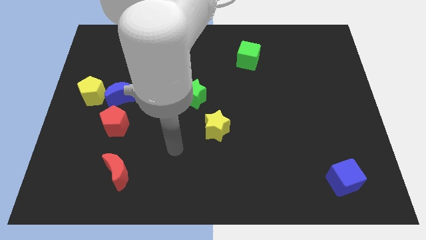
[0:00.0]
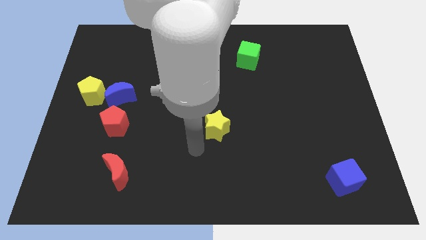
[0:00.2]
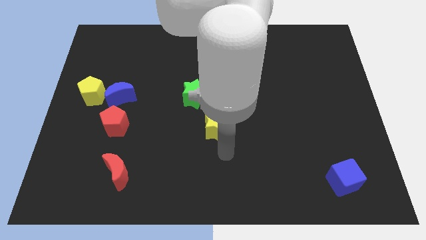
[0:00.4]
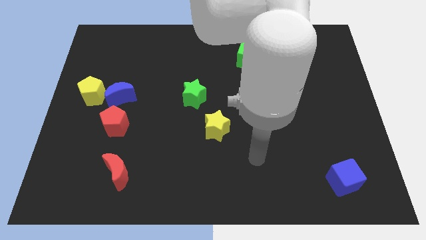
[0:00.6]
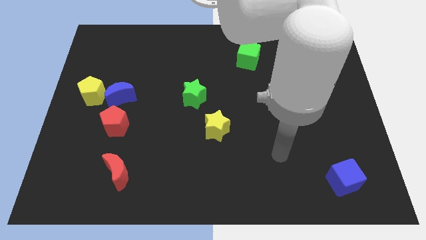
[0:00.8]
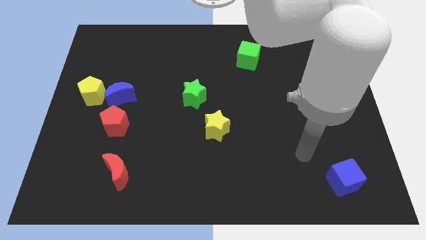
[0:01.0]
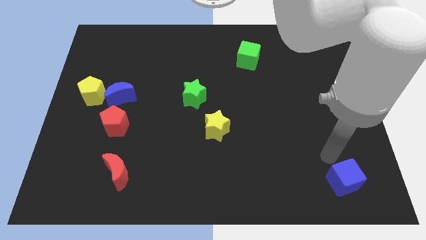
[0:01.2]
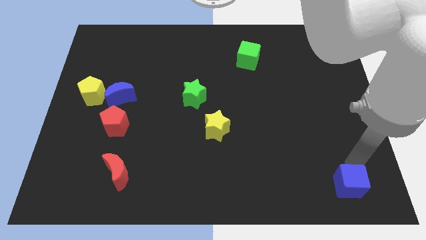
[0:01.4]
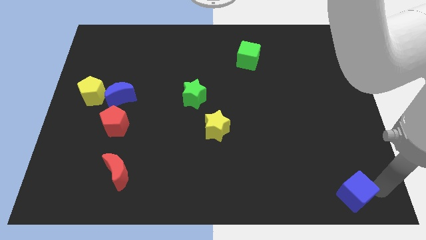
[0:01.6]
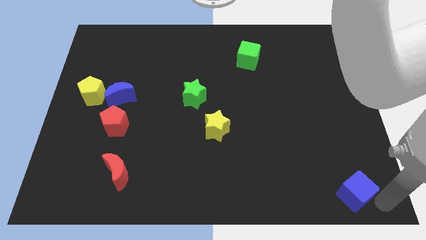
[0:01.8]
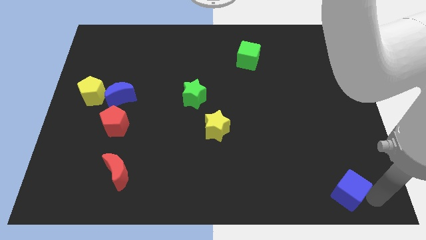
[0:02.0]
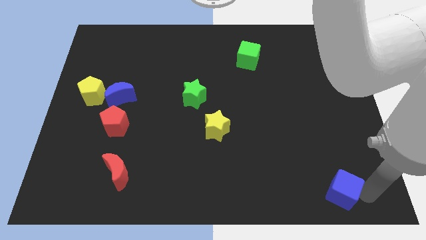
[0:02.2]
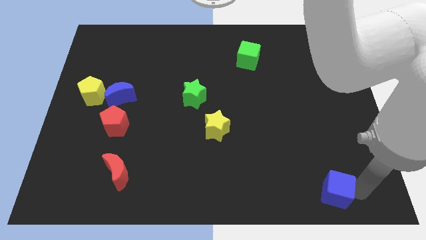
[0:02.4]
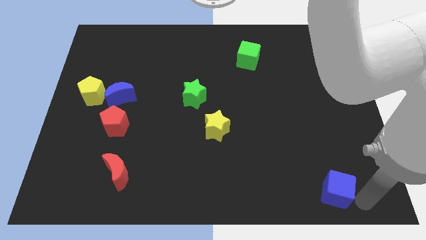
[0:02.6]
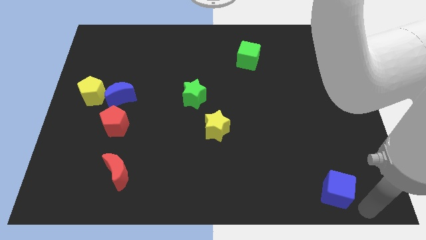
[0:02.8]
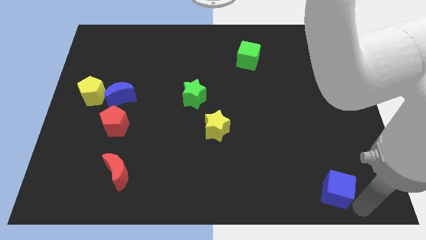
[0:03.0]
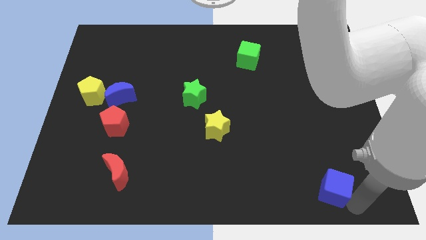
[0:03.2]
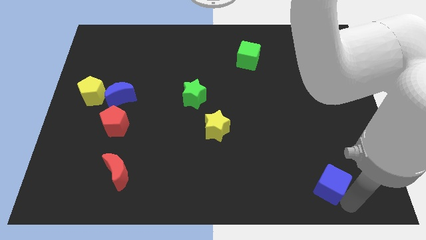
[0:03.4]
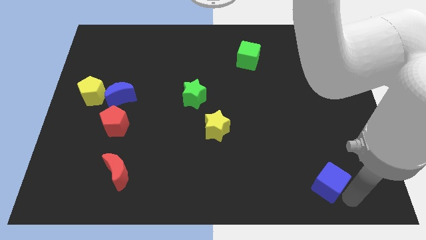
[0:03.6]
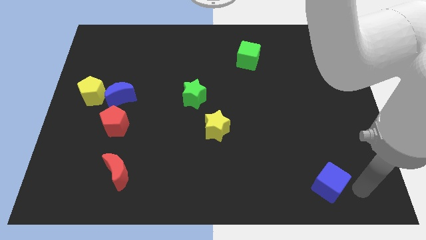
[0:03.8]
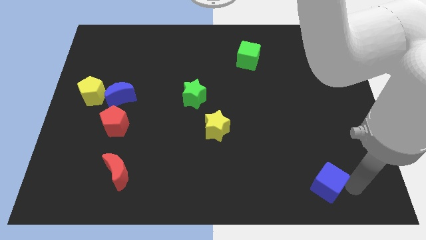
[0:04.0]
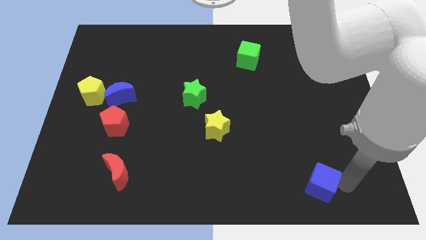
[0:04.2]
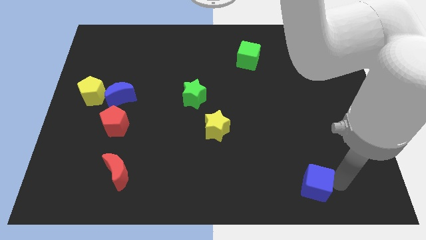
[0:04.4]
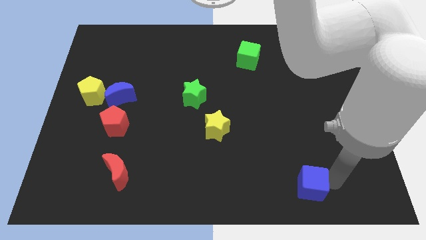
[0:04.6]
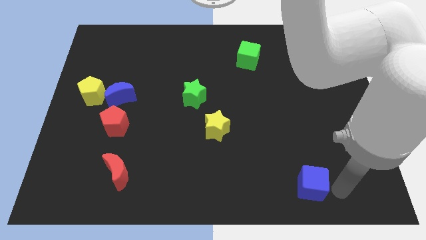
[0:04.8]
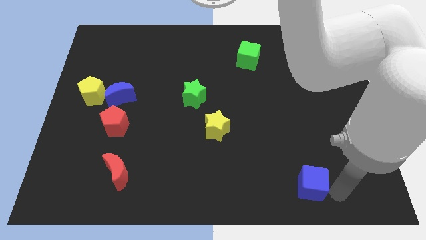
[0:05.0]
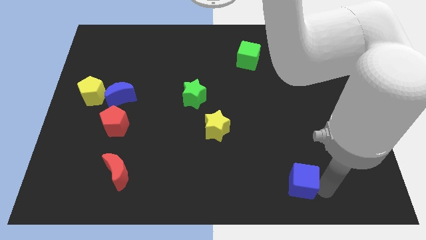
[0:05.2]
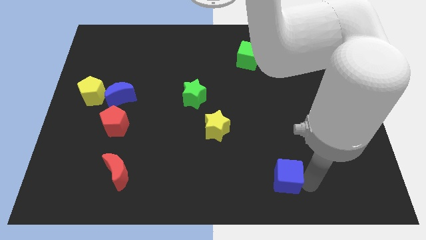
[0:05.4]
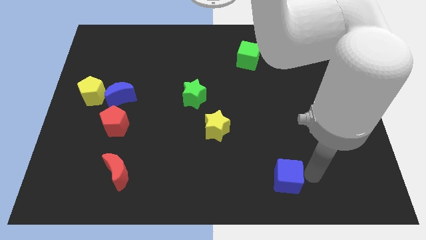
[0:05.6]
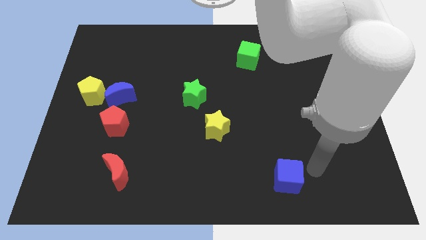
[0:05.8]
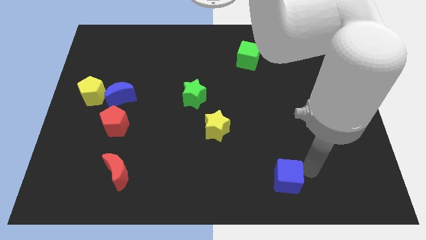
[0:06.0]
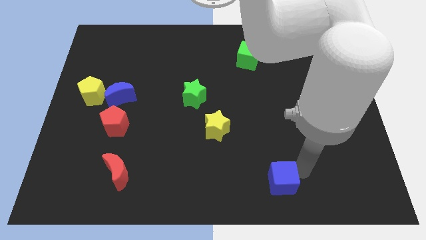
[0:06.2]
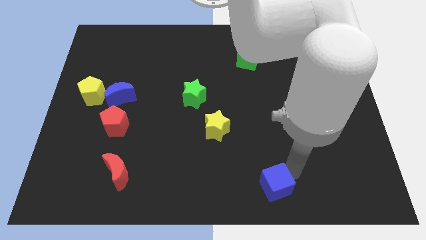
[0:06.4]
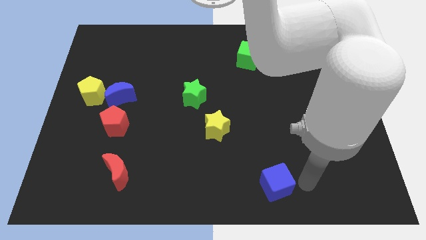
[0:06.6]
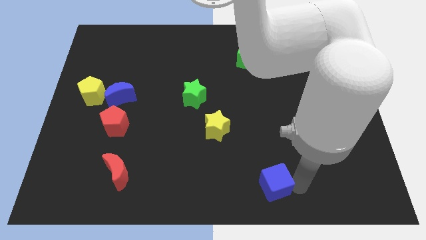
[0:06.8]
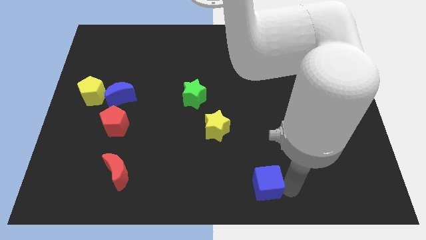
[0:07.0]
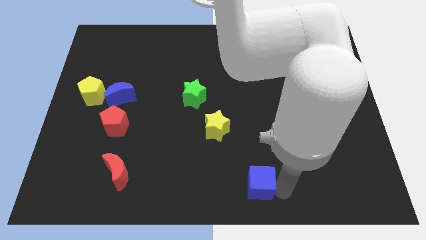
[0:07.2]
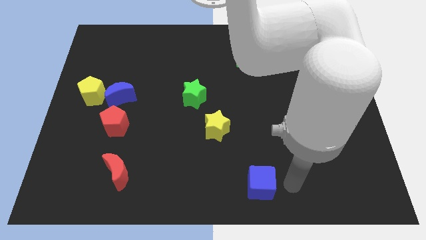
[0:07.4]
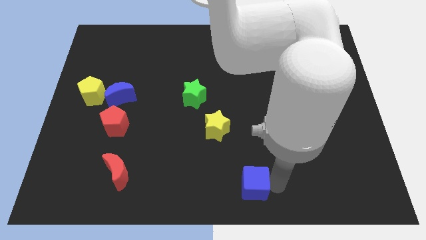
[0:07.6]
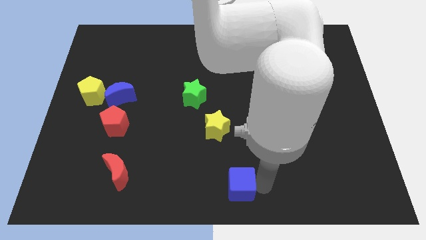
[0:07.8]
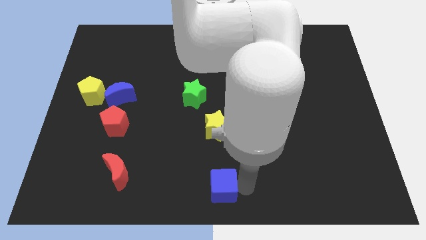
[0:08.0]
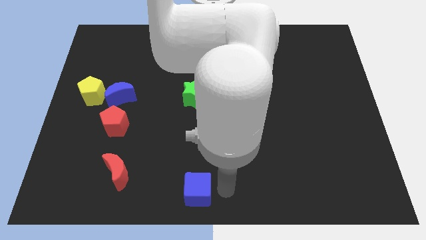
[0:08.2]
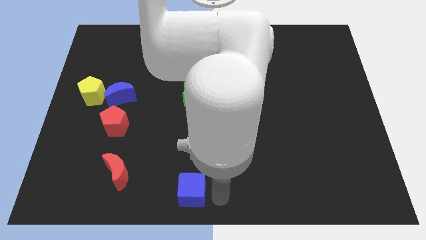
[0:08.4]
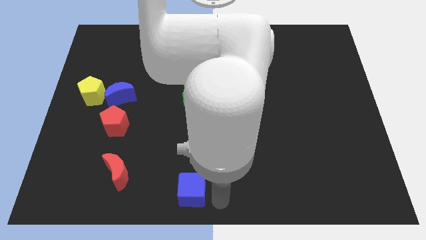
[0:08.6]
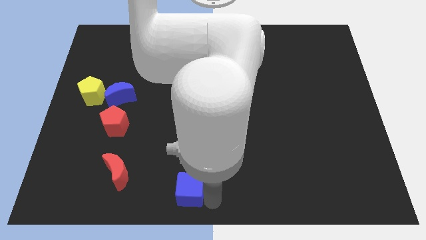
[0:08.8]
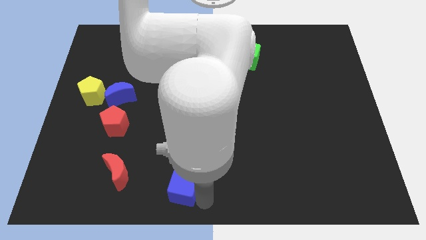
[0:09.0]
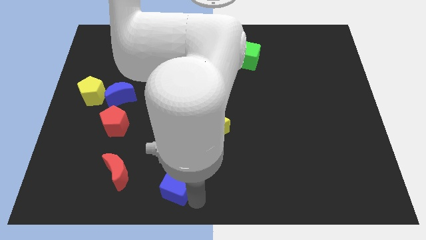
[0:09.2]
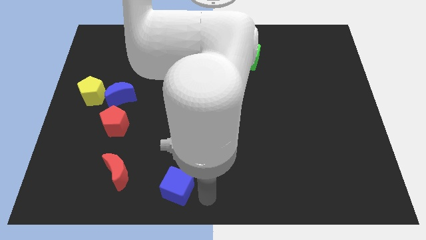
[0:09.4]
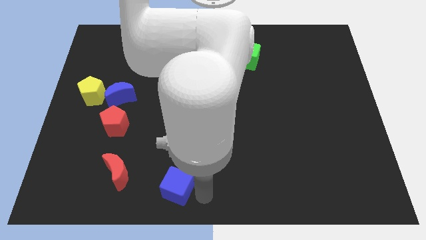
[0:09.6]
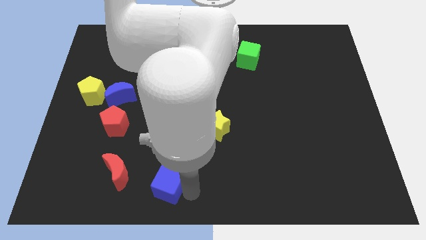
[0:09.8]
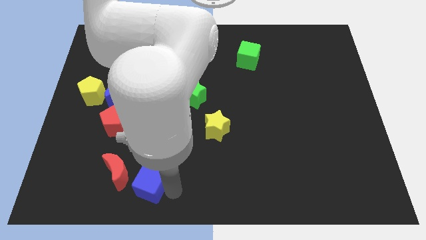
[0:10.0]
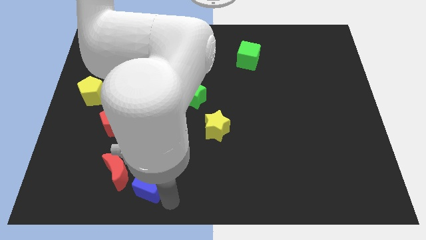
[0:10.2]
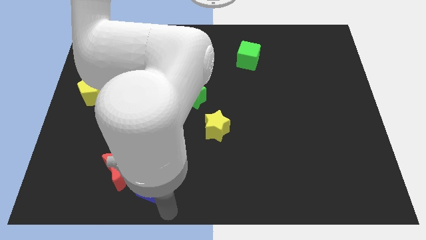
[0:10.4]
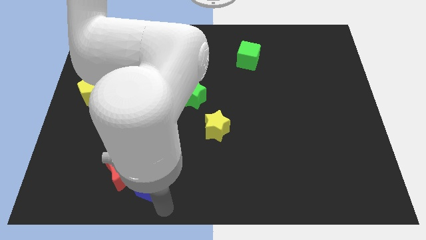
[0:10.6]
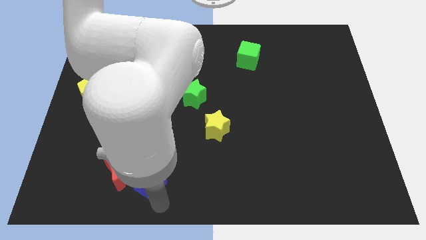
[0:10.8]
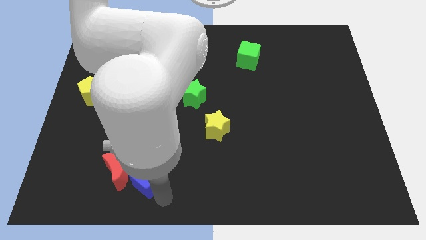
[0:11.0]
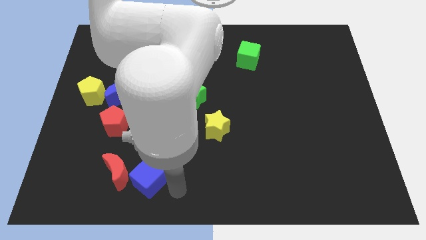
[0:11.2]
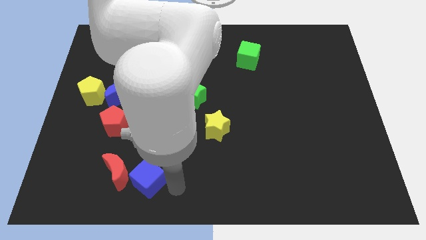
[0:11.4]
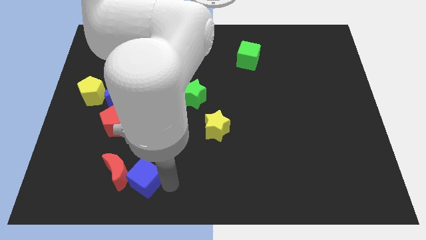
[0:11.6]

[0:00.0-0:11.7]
push the blue cube towards the red moon

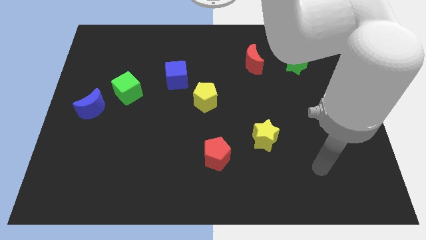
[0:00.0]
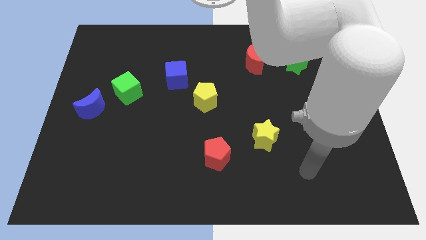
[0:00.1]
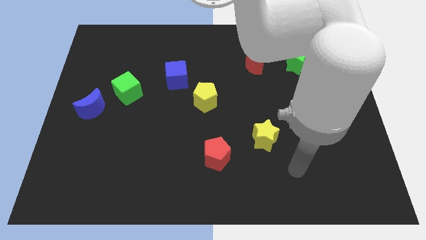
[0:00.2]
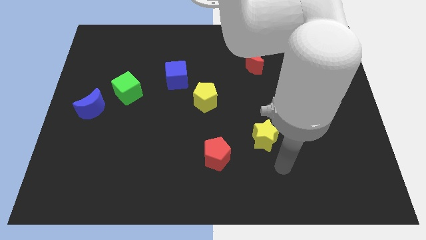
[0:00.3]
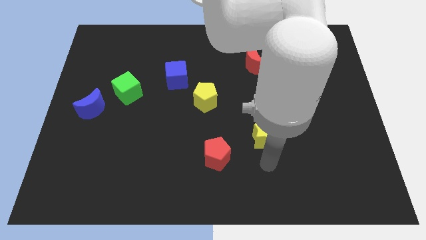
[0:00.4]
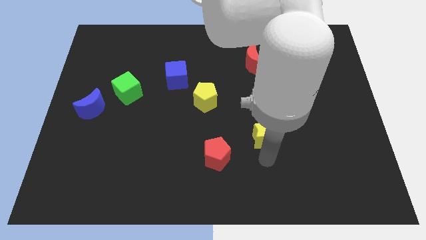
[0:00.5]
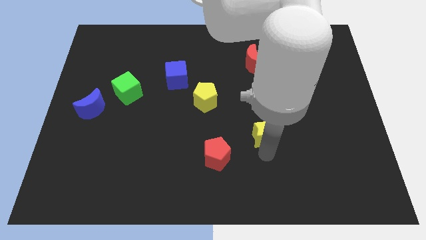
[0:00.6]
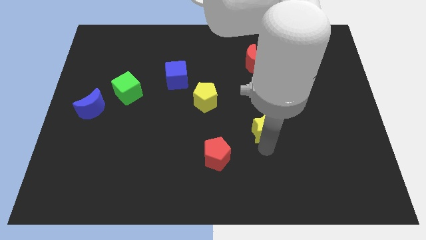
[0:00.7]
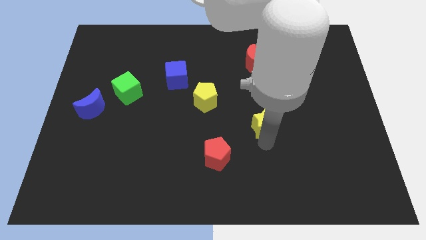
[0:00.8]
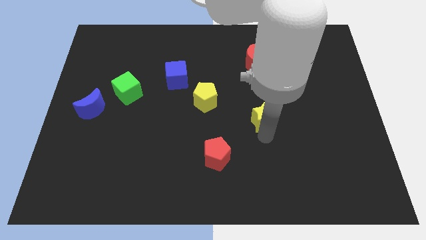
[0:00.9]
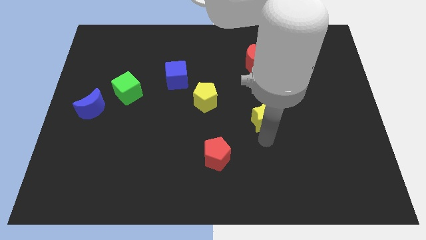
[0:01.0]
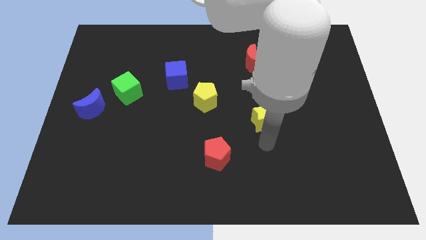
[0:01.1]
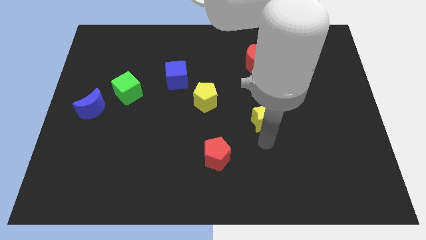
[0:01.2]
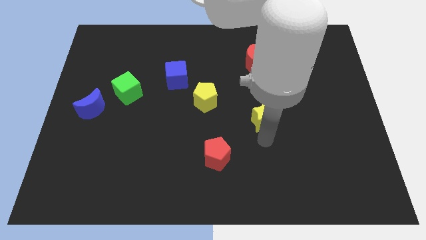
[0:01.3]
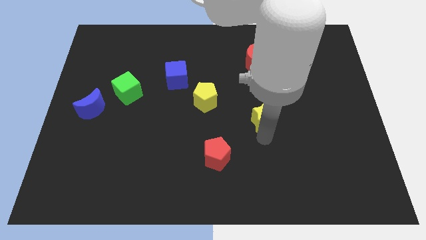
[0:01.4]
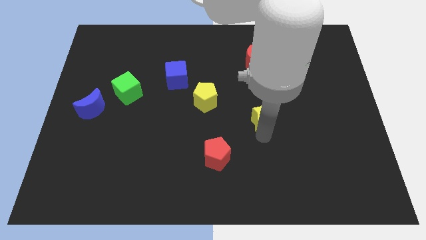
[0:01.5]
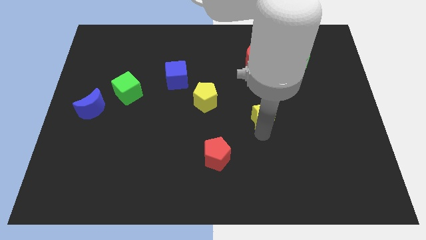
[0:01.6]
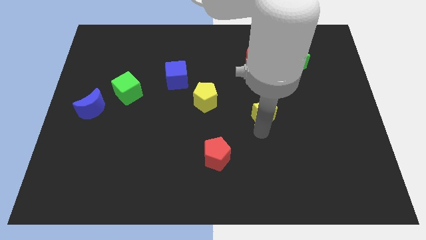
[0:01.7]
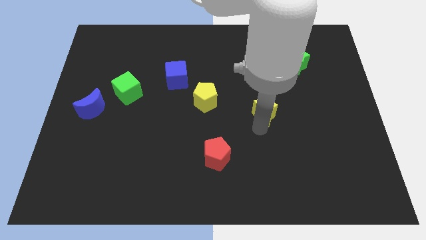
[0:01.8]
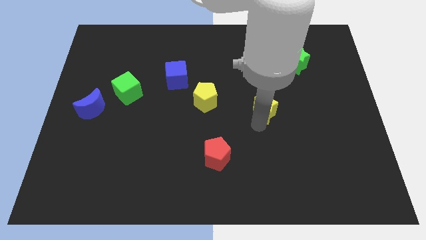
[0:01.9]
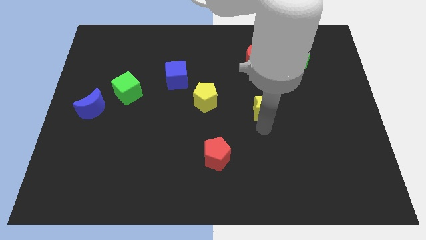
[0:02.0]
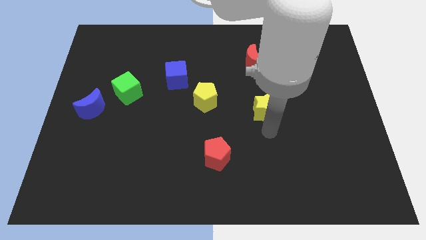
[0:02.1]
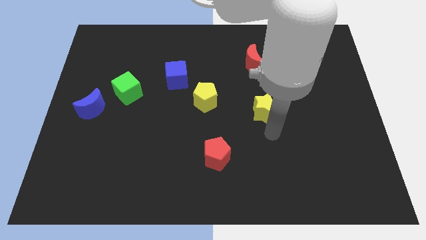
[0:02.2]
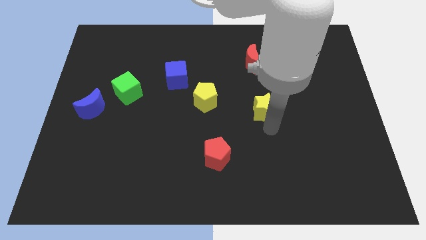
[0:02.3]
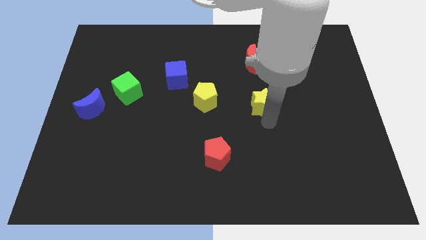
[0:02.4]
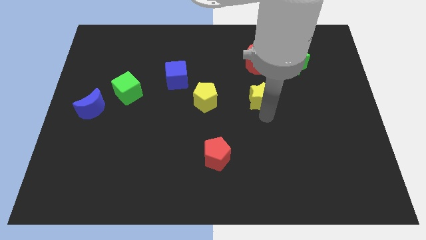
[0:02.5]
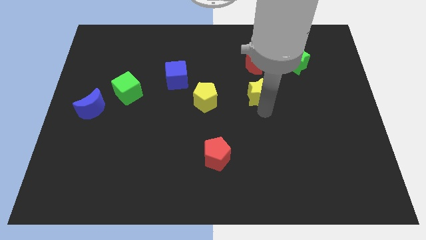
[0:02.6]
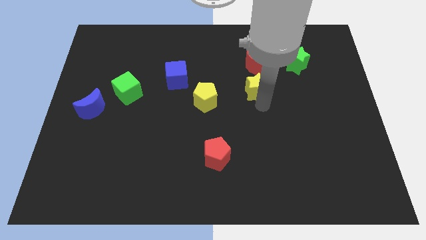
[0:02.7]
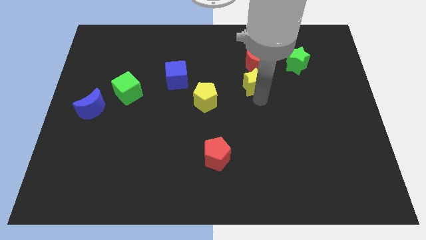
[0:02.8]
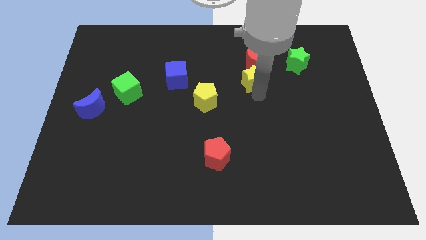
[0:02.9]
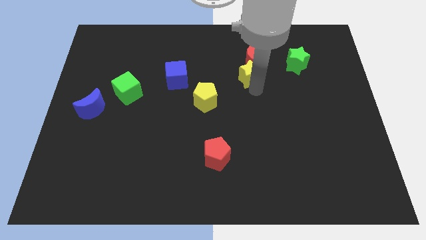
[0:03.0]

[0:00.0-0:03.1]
push the yellow star to the red moon
